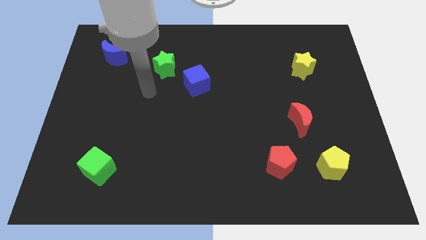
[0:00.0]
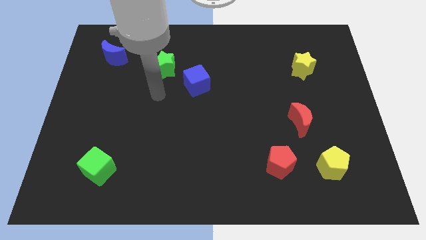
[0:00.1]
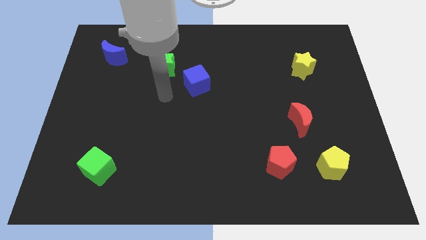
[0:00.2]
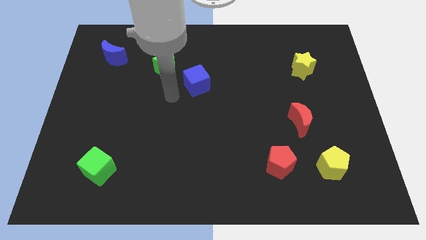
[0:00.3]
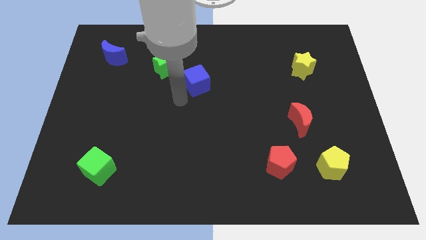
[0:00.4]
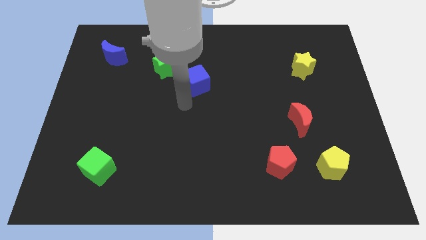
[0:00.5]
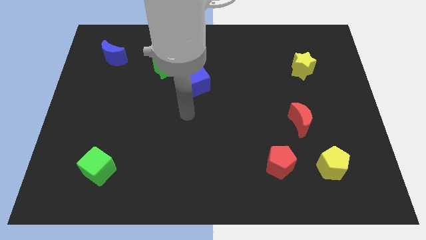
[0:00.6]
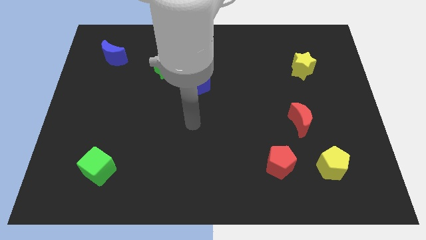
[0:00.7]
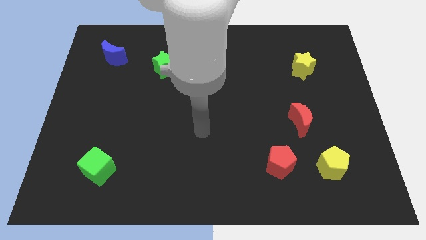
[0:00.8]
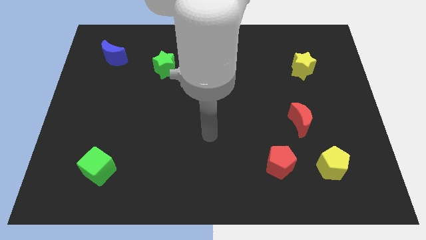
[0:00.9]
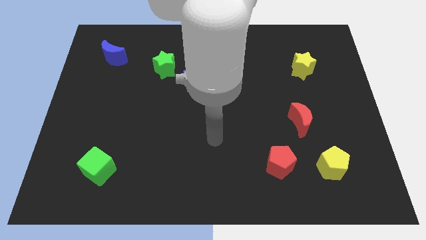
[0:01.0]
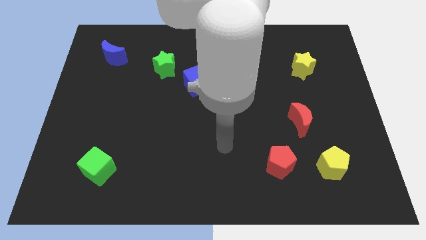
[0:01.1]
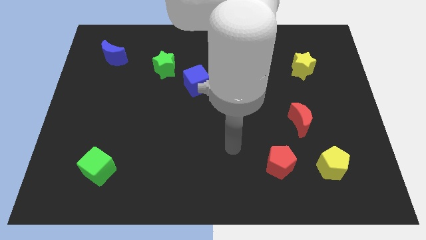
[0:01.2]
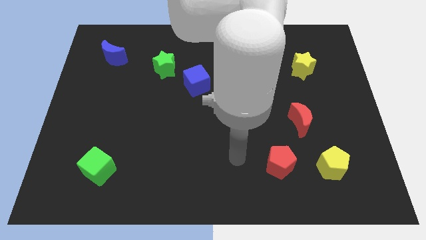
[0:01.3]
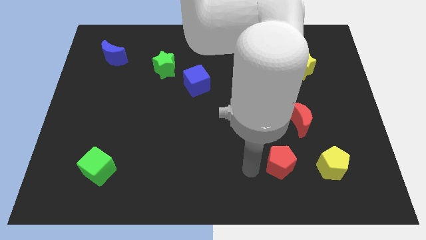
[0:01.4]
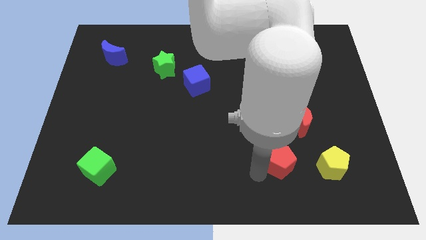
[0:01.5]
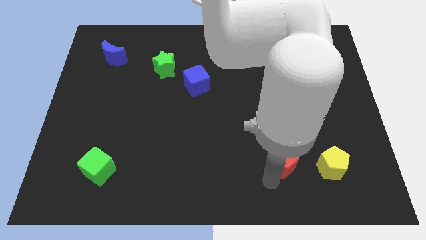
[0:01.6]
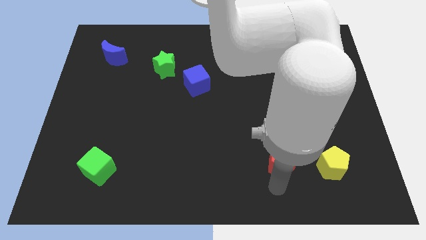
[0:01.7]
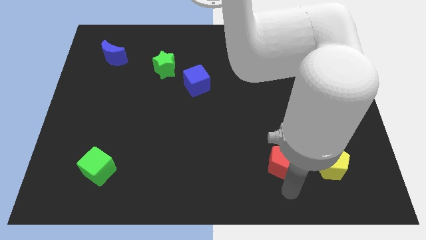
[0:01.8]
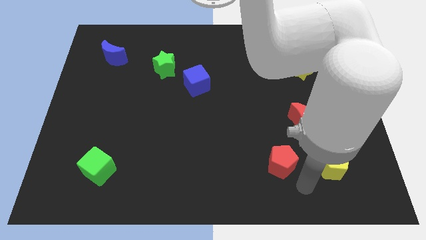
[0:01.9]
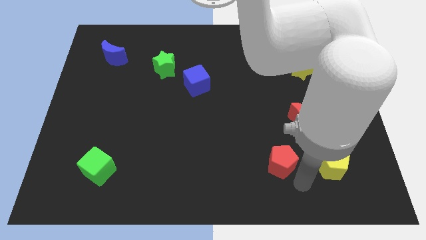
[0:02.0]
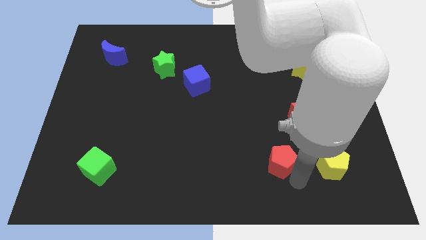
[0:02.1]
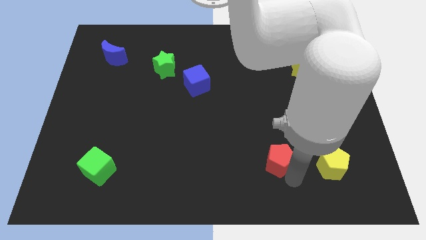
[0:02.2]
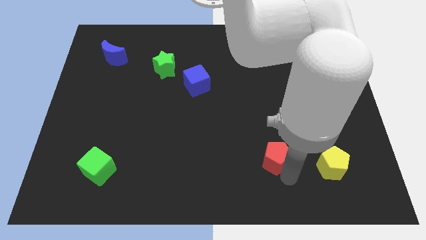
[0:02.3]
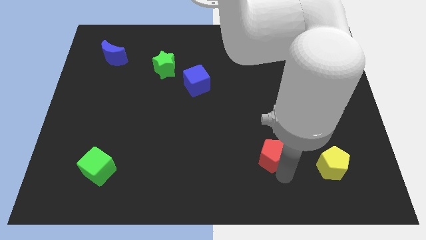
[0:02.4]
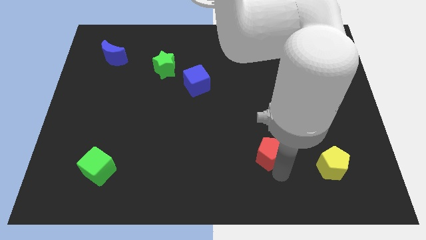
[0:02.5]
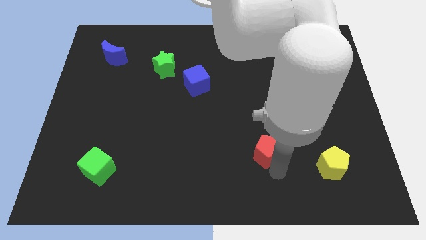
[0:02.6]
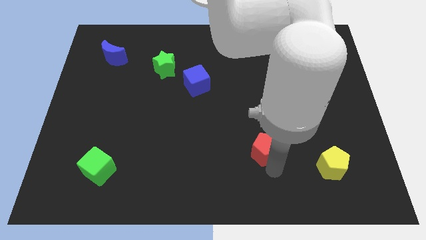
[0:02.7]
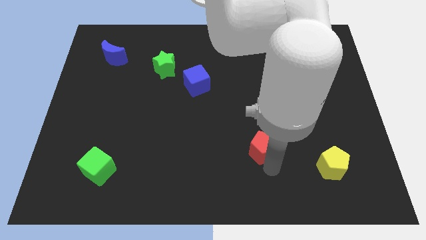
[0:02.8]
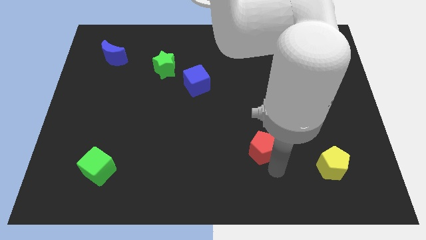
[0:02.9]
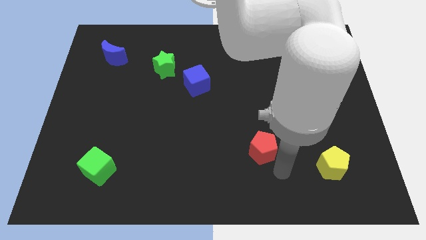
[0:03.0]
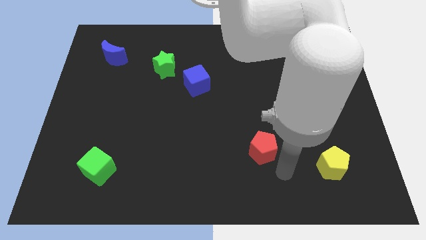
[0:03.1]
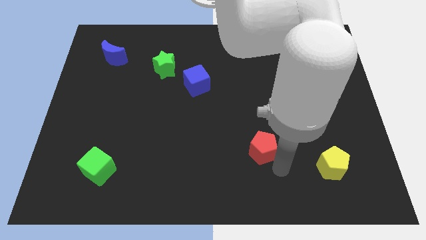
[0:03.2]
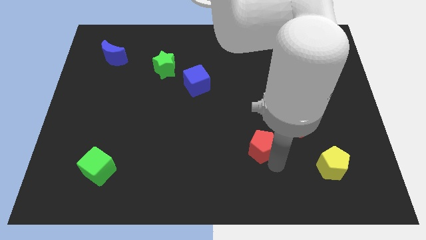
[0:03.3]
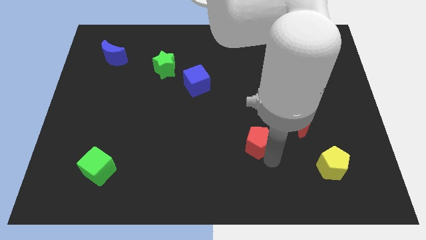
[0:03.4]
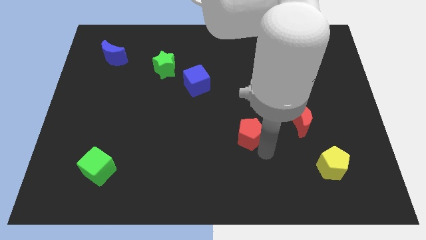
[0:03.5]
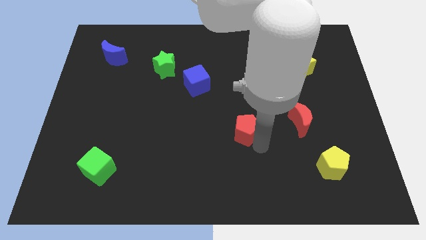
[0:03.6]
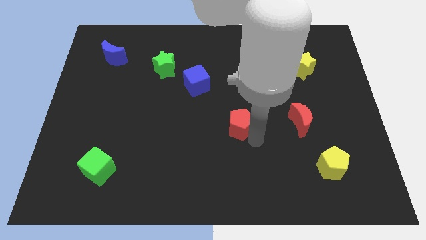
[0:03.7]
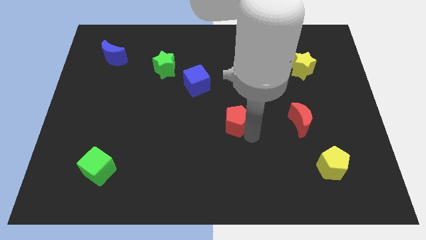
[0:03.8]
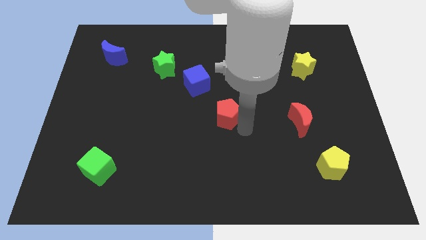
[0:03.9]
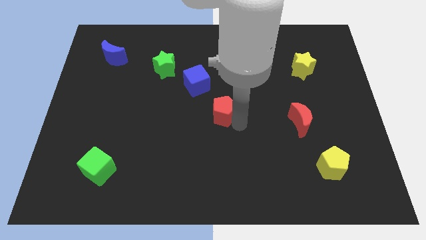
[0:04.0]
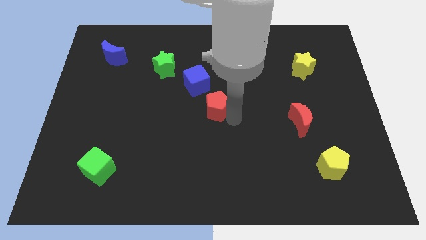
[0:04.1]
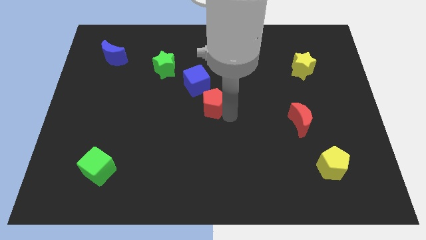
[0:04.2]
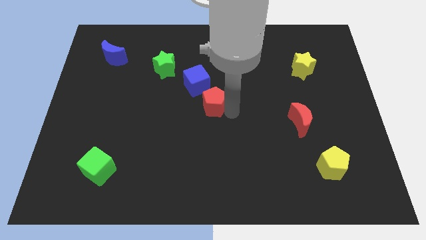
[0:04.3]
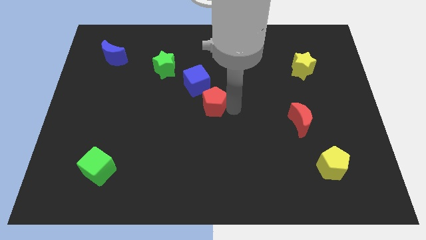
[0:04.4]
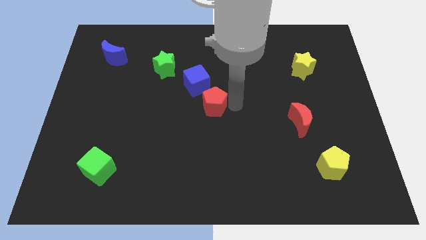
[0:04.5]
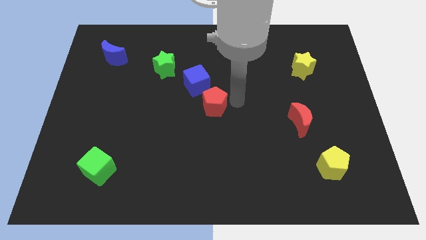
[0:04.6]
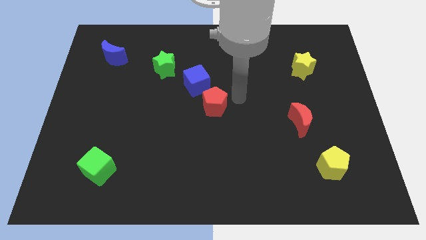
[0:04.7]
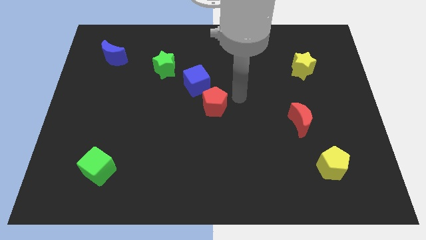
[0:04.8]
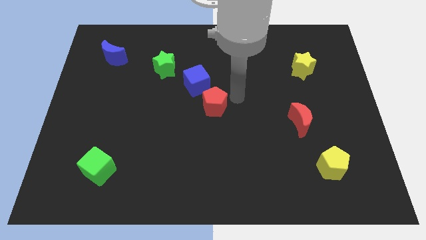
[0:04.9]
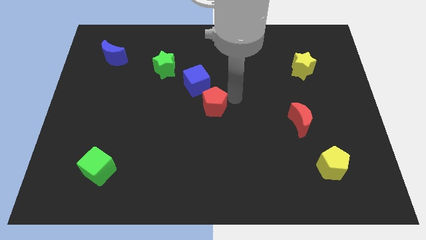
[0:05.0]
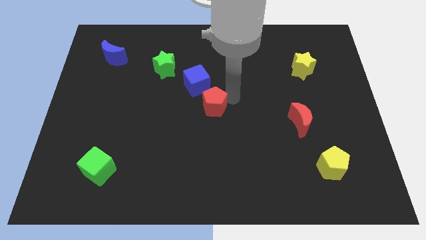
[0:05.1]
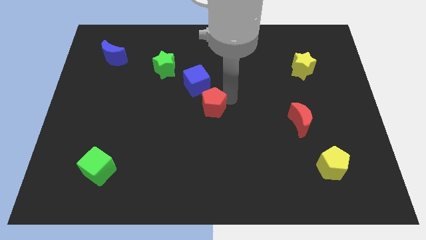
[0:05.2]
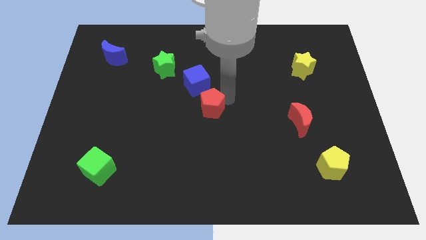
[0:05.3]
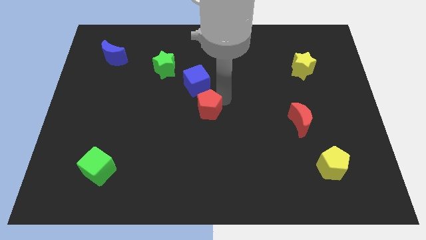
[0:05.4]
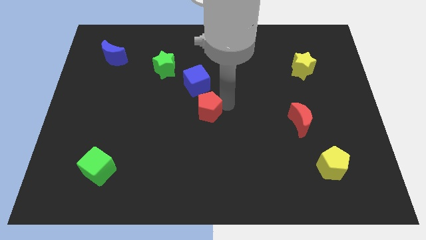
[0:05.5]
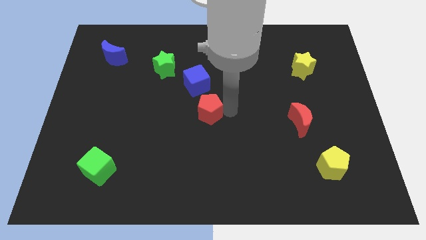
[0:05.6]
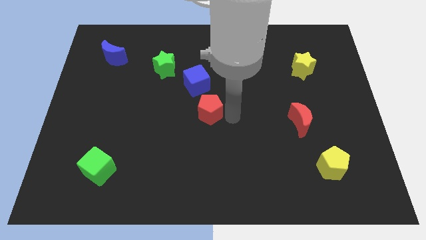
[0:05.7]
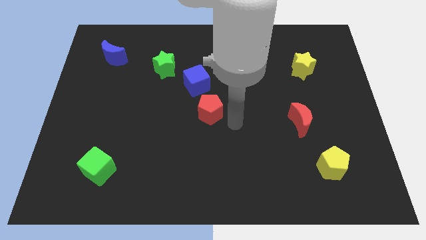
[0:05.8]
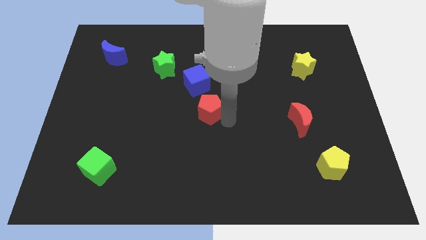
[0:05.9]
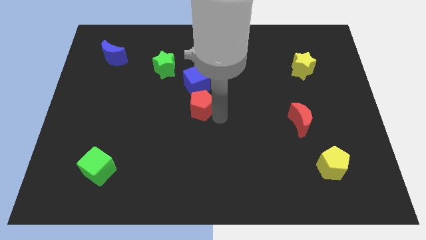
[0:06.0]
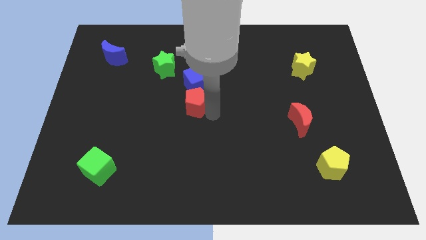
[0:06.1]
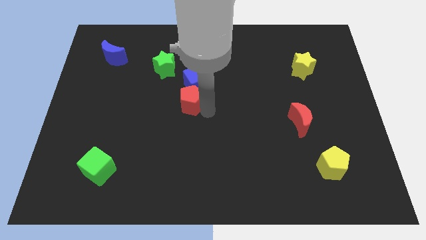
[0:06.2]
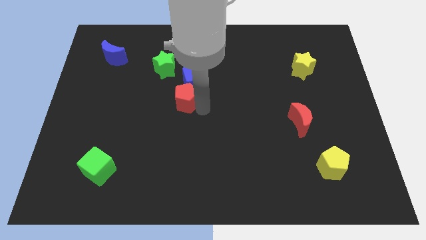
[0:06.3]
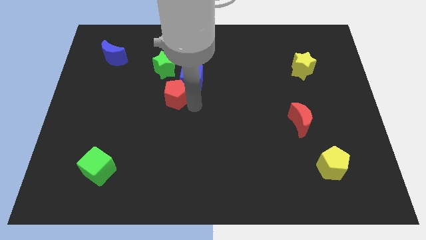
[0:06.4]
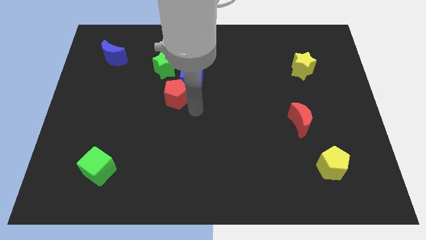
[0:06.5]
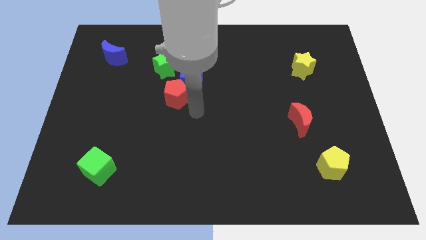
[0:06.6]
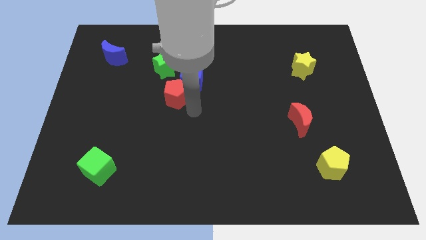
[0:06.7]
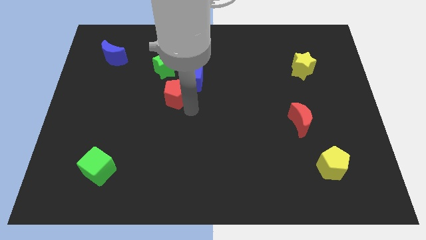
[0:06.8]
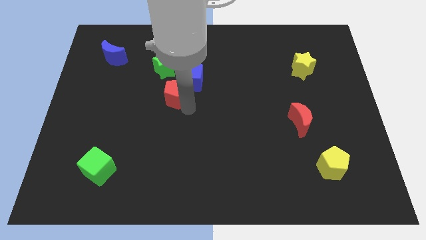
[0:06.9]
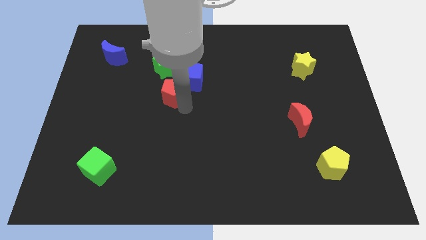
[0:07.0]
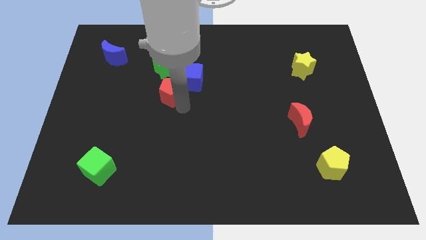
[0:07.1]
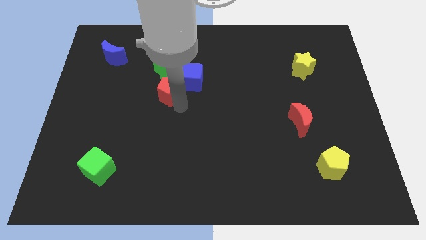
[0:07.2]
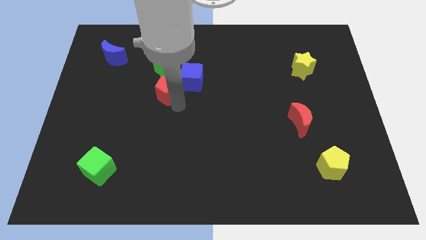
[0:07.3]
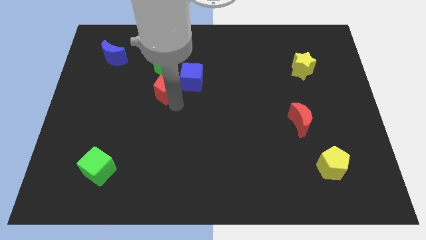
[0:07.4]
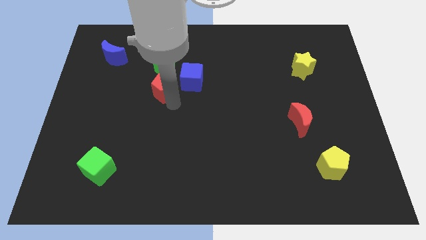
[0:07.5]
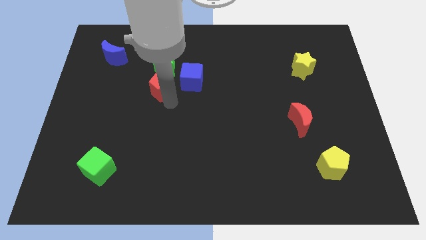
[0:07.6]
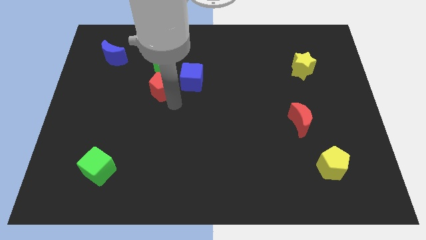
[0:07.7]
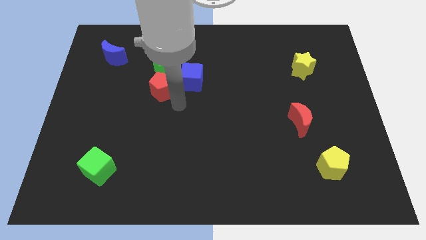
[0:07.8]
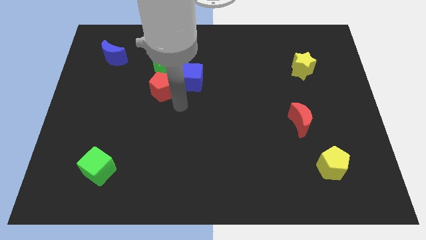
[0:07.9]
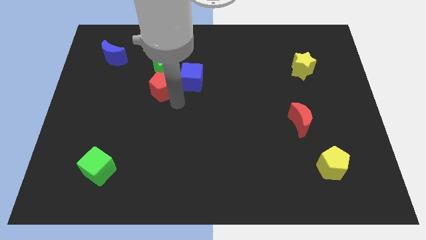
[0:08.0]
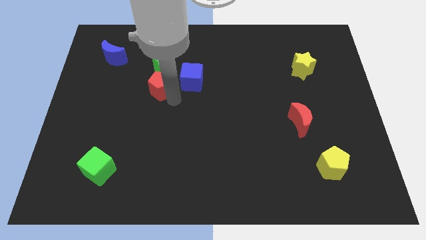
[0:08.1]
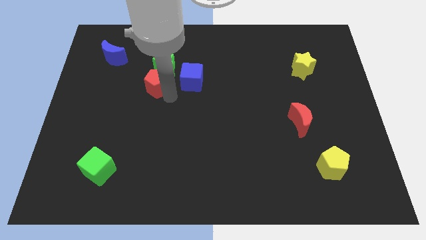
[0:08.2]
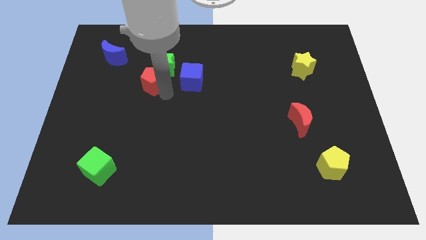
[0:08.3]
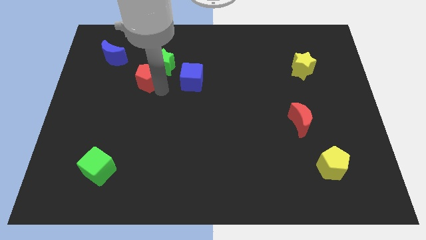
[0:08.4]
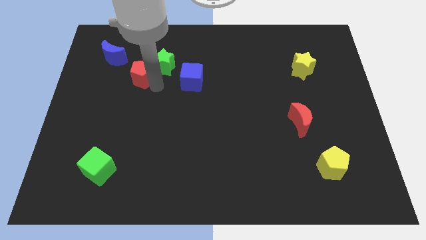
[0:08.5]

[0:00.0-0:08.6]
push the red pentagon to the bottom right of the blue moon
